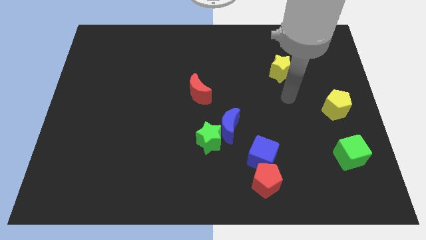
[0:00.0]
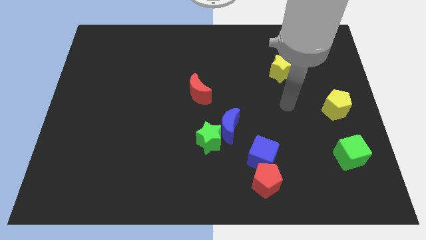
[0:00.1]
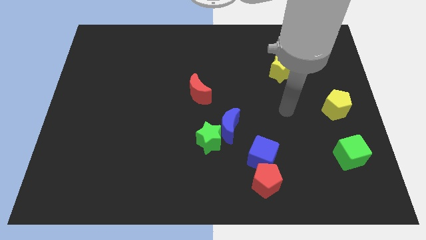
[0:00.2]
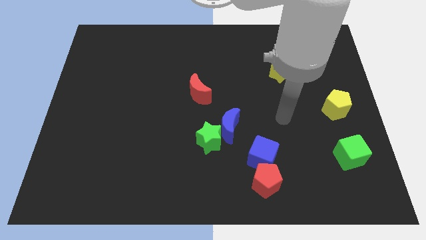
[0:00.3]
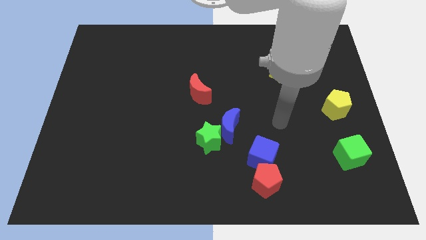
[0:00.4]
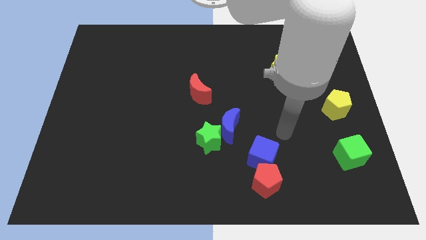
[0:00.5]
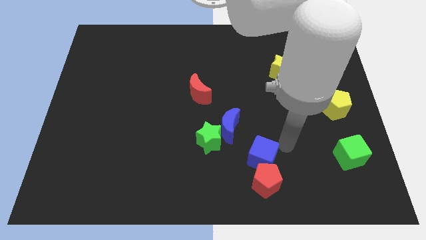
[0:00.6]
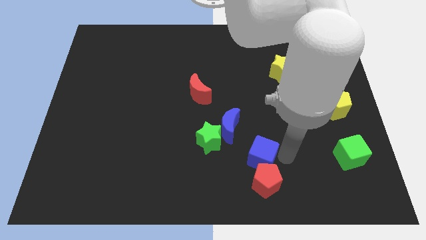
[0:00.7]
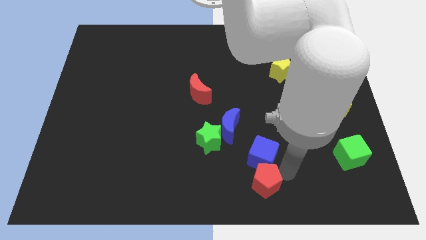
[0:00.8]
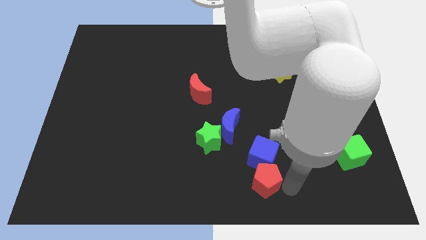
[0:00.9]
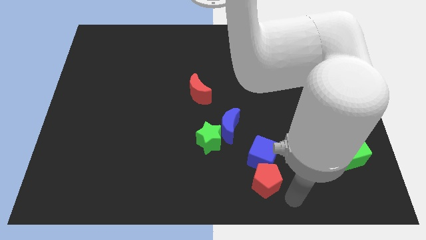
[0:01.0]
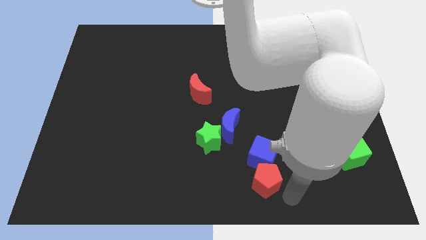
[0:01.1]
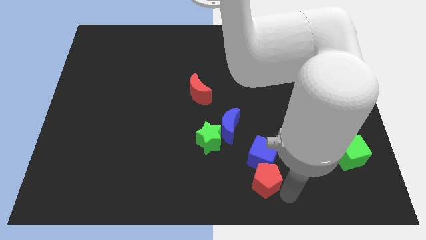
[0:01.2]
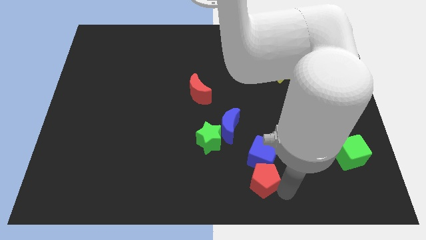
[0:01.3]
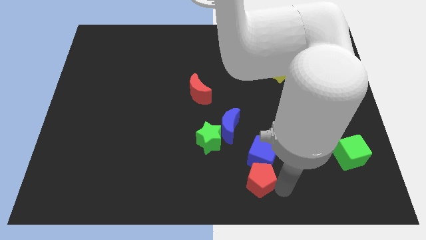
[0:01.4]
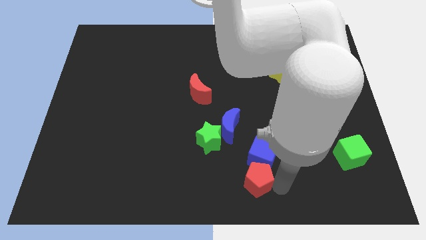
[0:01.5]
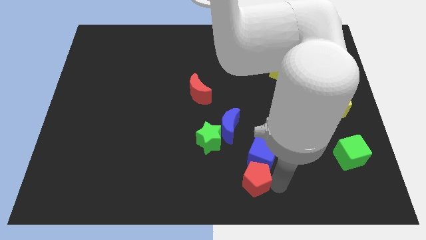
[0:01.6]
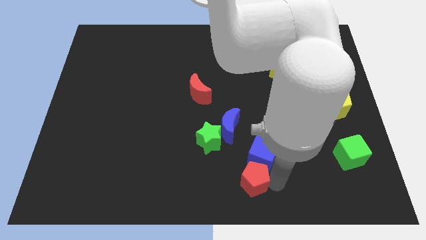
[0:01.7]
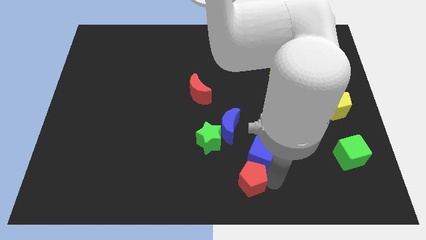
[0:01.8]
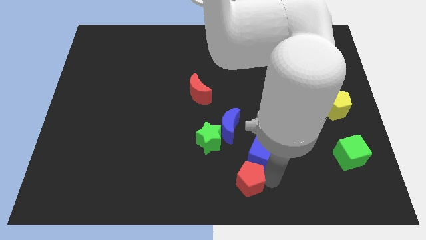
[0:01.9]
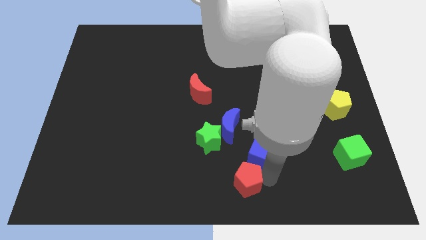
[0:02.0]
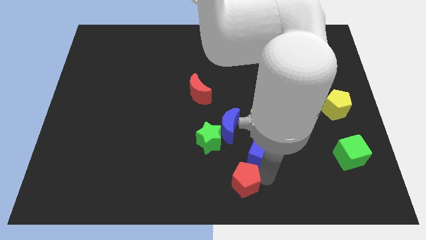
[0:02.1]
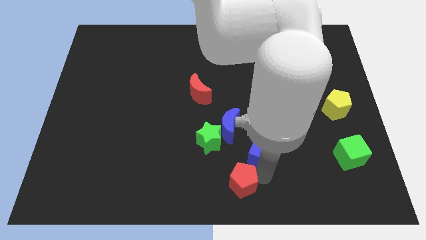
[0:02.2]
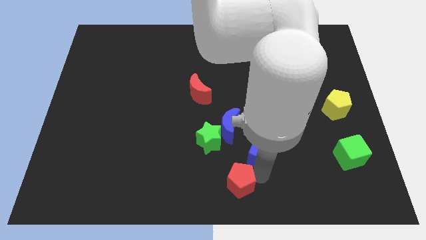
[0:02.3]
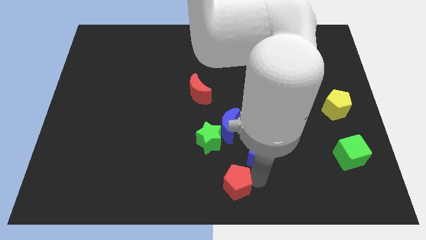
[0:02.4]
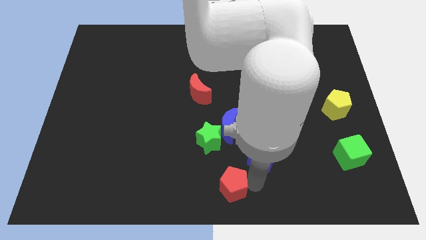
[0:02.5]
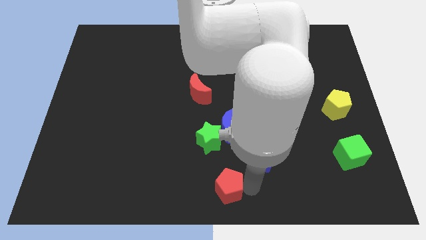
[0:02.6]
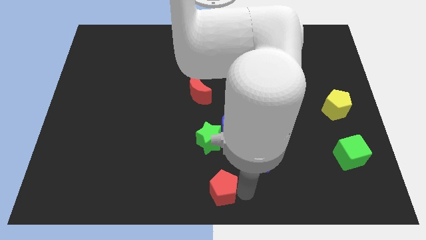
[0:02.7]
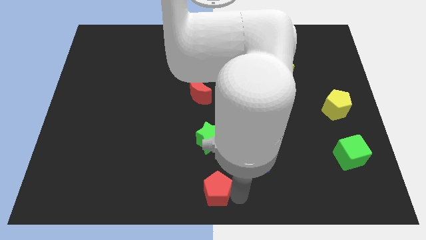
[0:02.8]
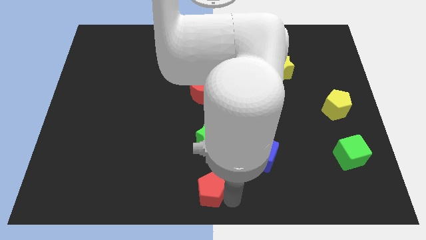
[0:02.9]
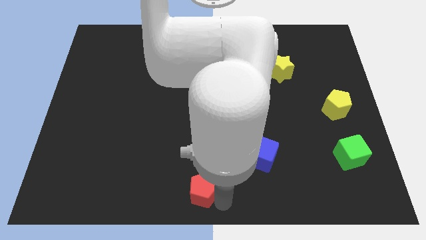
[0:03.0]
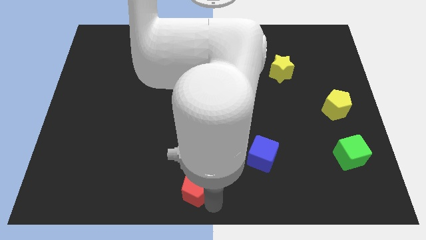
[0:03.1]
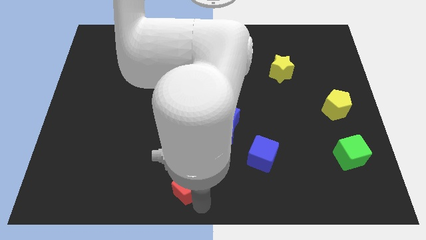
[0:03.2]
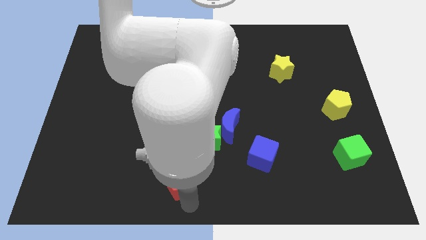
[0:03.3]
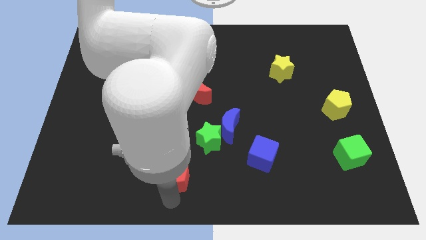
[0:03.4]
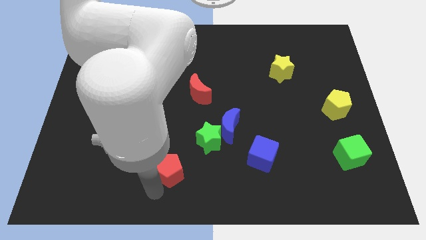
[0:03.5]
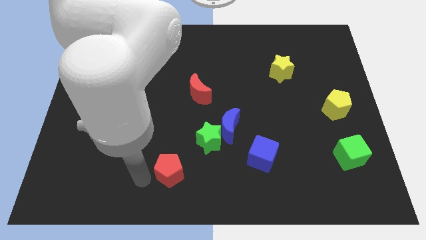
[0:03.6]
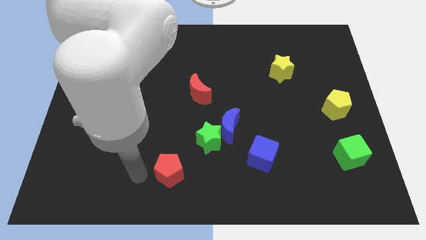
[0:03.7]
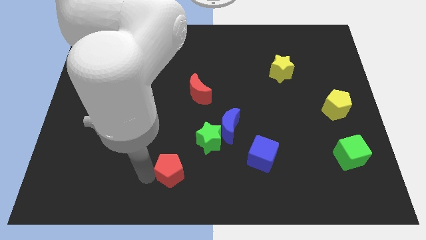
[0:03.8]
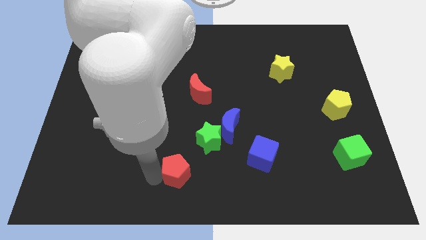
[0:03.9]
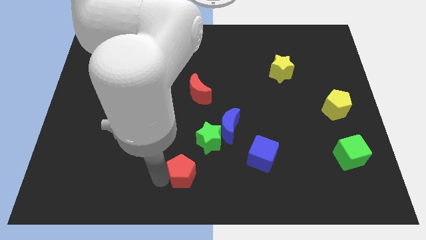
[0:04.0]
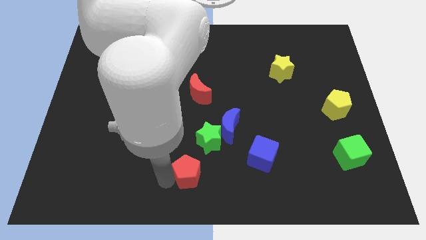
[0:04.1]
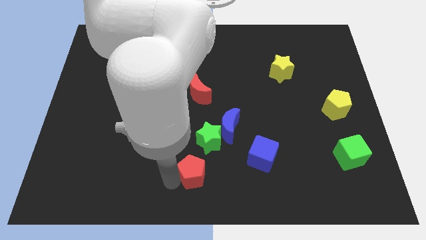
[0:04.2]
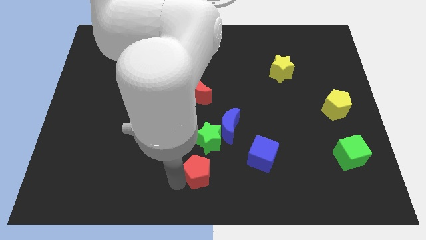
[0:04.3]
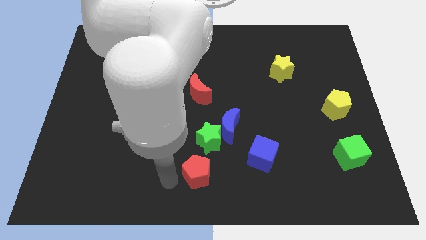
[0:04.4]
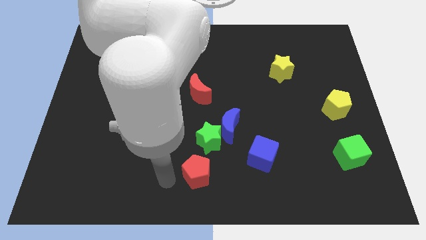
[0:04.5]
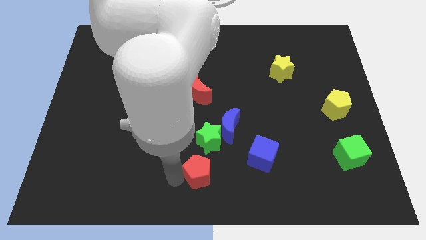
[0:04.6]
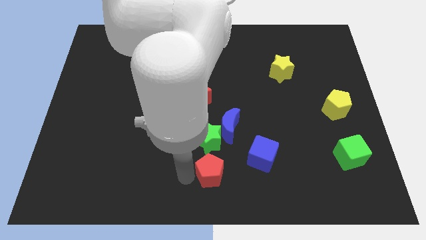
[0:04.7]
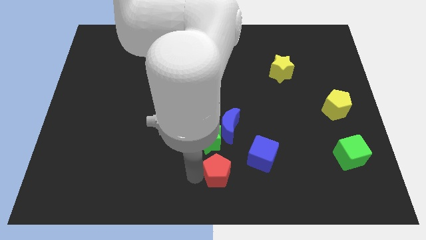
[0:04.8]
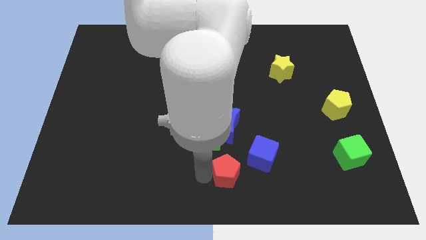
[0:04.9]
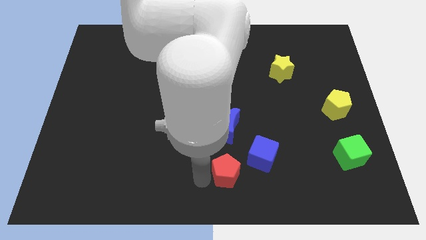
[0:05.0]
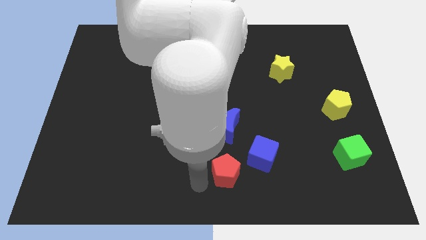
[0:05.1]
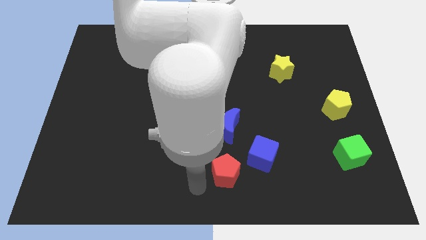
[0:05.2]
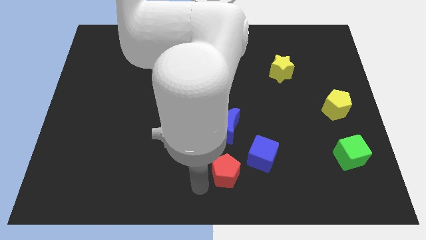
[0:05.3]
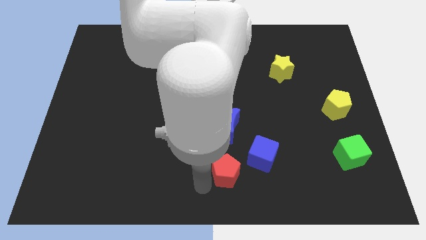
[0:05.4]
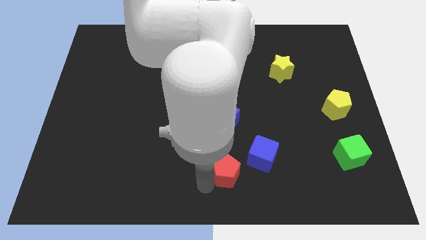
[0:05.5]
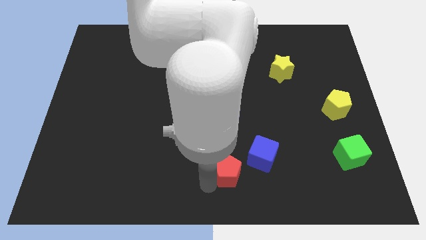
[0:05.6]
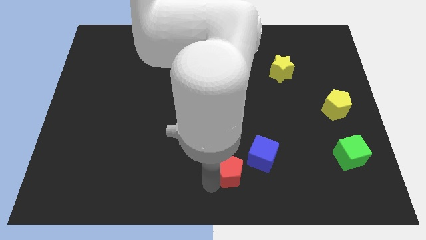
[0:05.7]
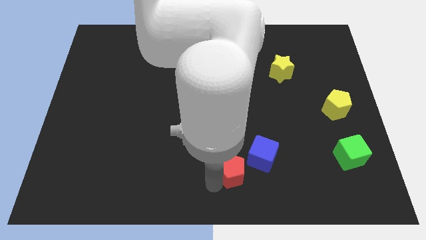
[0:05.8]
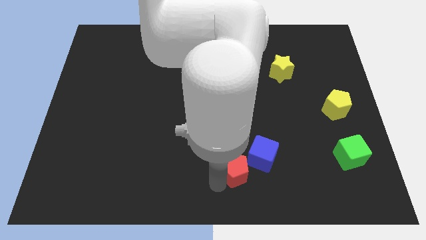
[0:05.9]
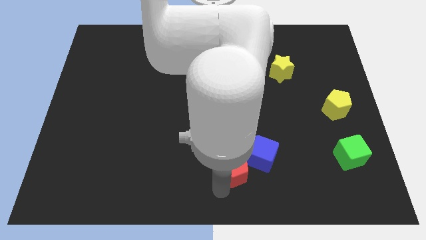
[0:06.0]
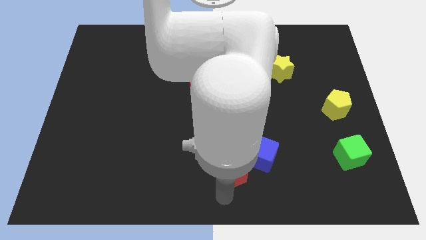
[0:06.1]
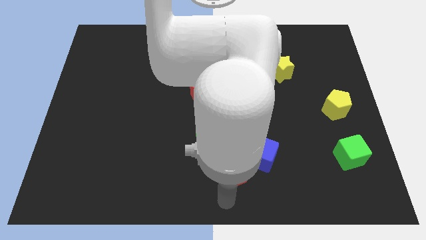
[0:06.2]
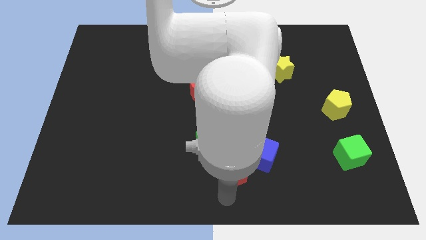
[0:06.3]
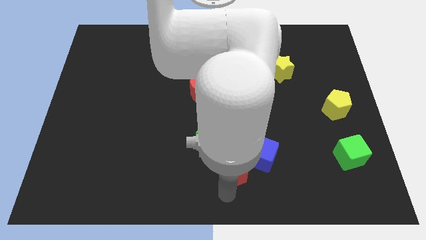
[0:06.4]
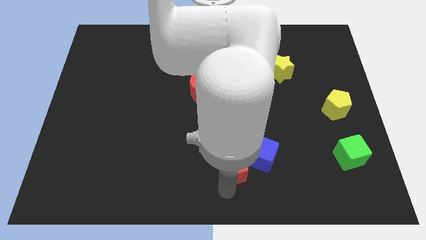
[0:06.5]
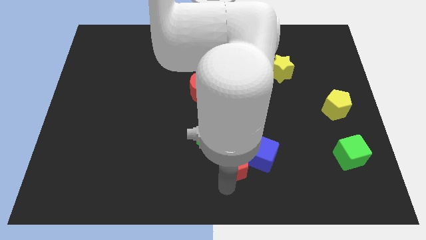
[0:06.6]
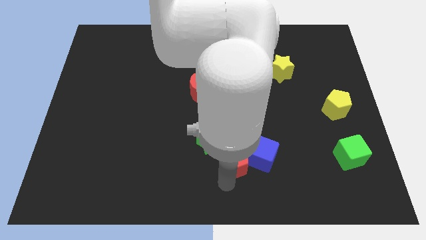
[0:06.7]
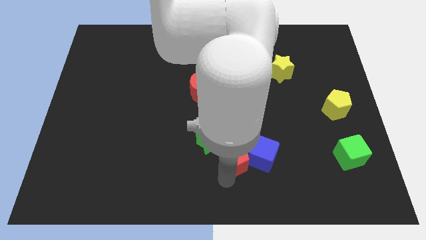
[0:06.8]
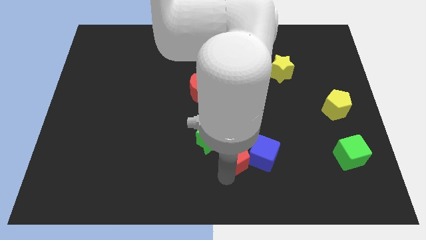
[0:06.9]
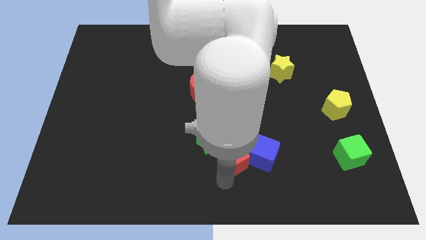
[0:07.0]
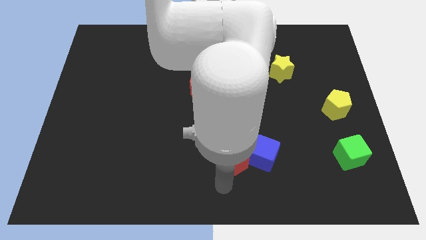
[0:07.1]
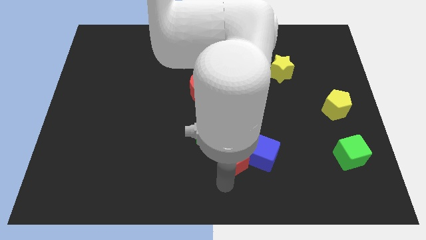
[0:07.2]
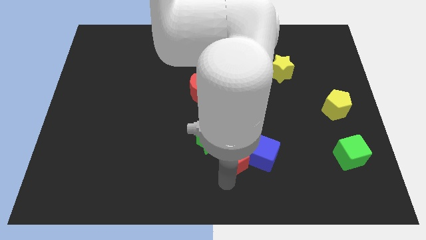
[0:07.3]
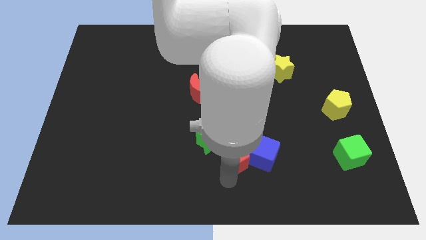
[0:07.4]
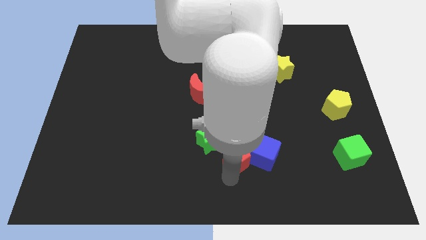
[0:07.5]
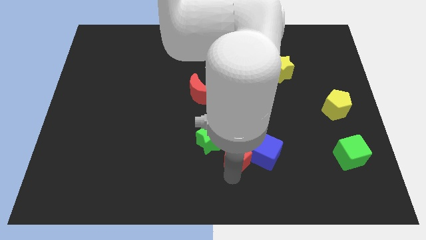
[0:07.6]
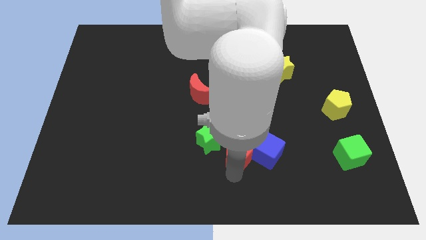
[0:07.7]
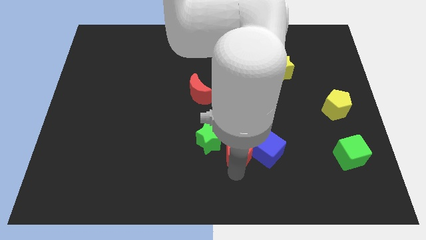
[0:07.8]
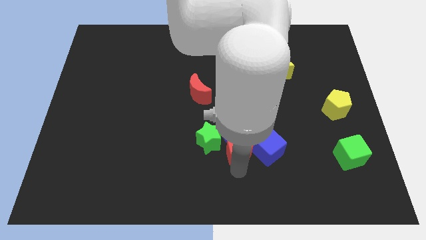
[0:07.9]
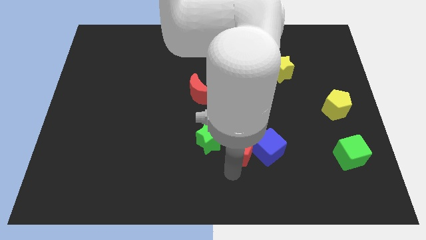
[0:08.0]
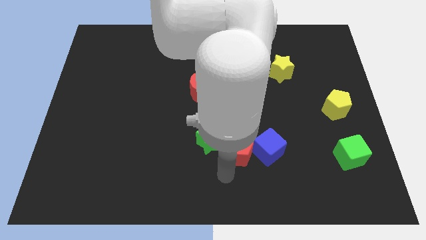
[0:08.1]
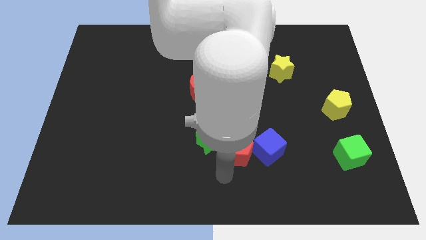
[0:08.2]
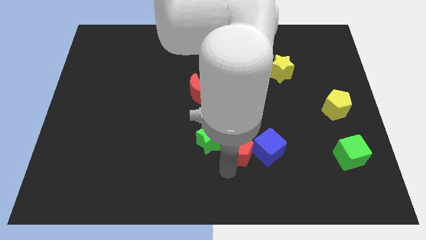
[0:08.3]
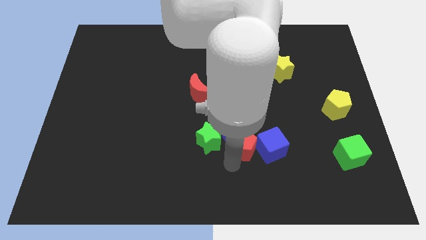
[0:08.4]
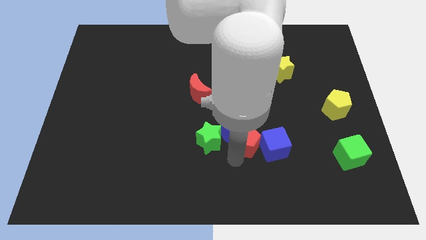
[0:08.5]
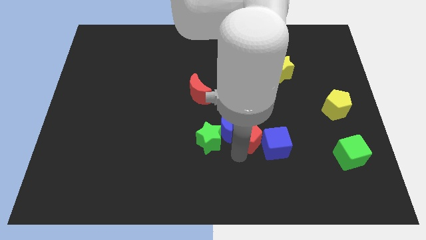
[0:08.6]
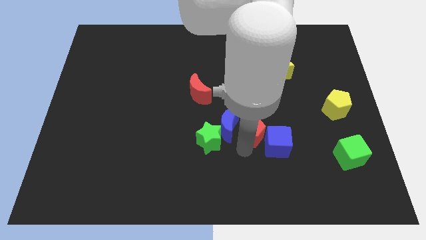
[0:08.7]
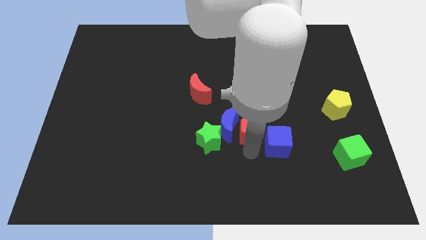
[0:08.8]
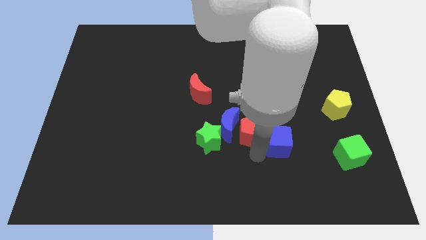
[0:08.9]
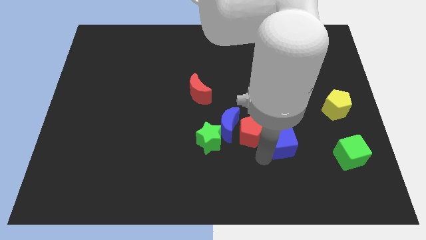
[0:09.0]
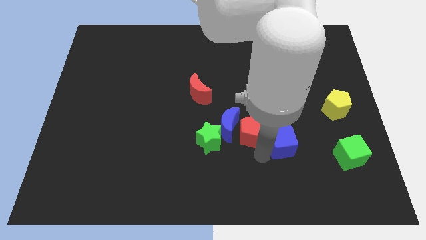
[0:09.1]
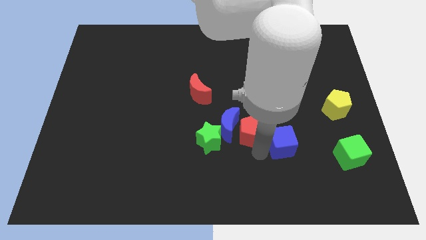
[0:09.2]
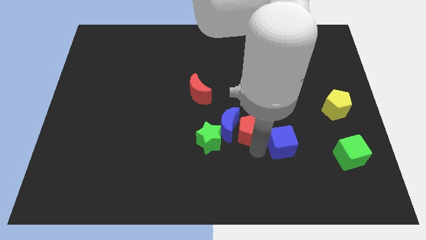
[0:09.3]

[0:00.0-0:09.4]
put the red pentagon to the center of the board
